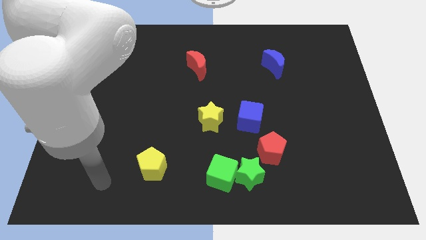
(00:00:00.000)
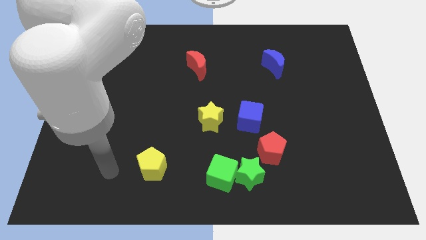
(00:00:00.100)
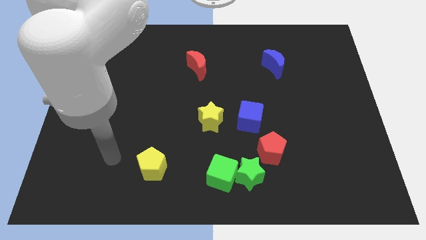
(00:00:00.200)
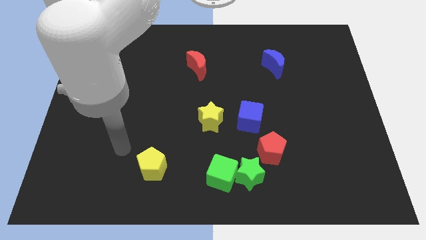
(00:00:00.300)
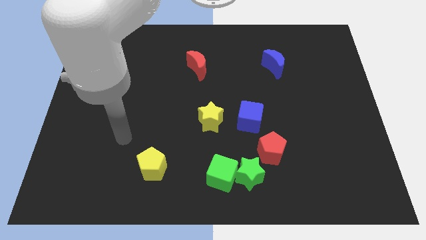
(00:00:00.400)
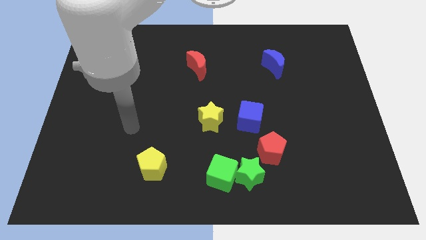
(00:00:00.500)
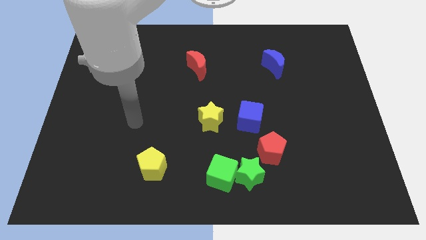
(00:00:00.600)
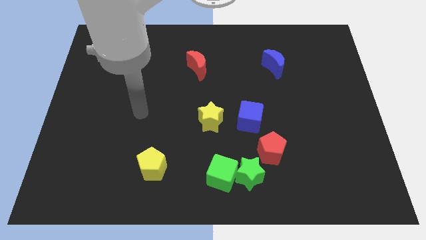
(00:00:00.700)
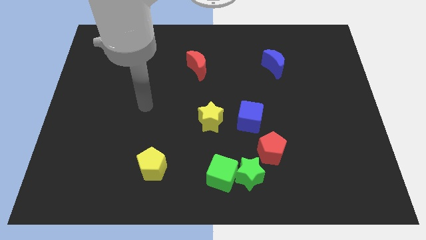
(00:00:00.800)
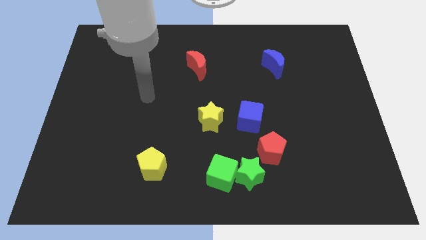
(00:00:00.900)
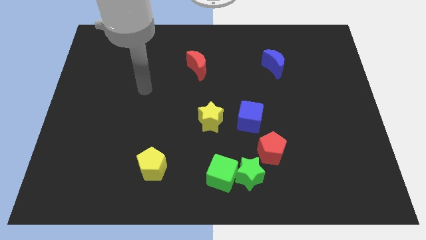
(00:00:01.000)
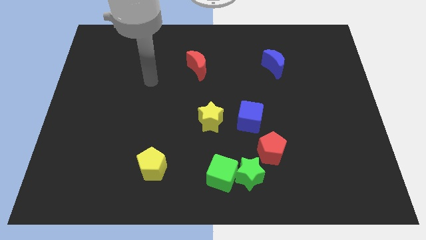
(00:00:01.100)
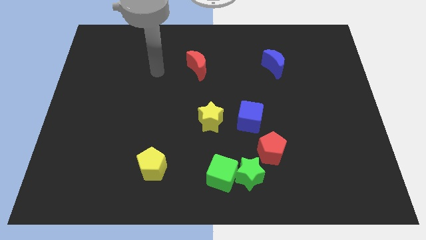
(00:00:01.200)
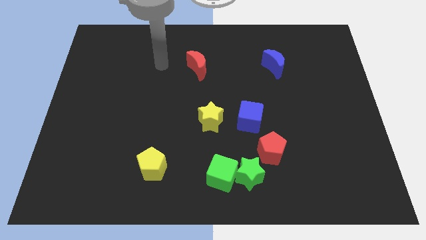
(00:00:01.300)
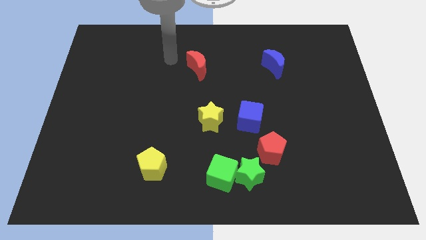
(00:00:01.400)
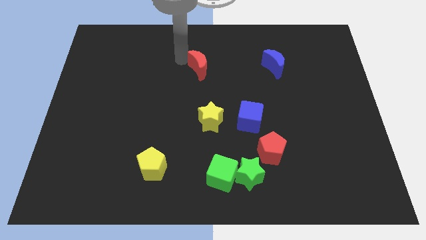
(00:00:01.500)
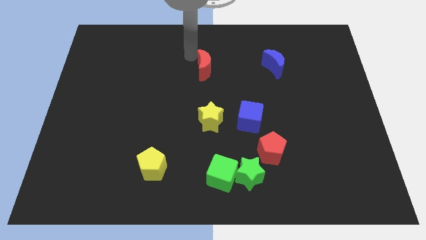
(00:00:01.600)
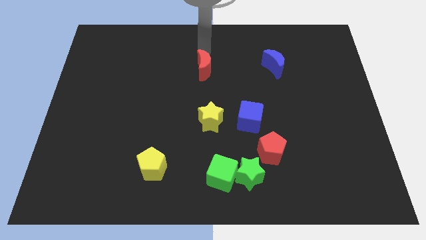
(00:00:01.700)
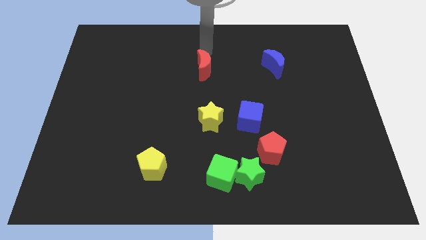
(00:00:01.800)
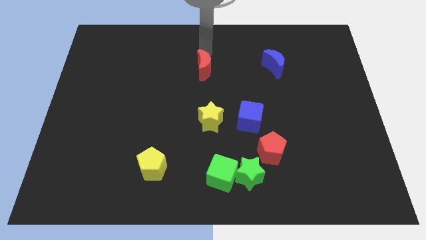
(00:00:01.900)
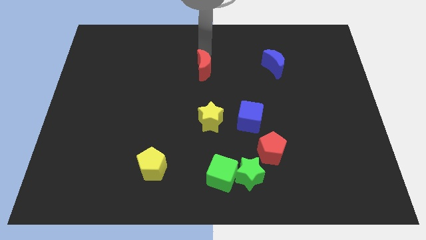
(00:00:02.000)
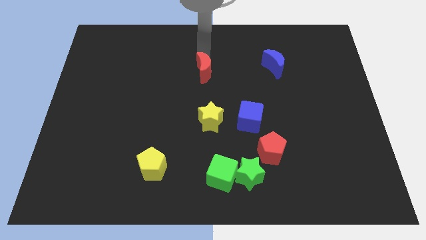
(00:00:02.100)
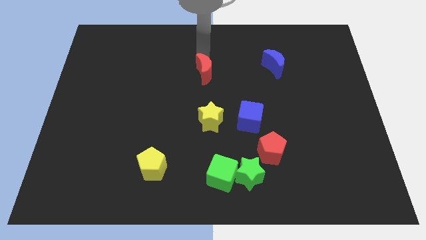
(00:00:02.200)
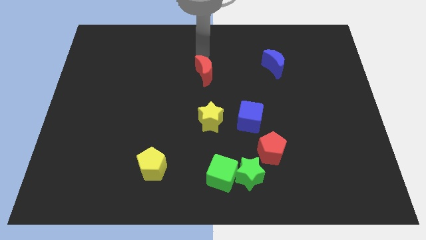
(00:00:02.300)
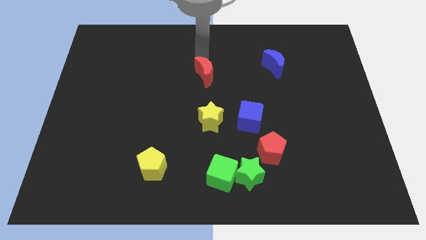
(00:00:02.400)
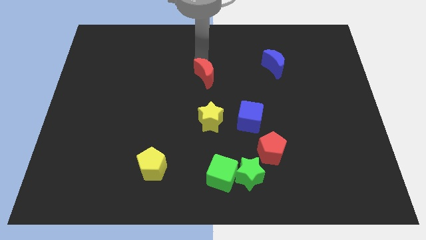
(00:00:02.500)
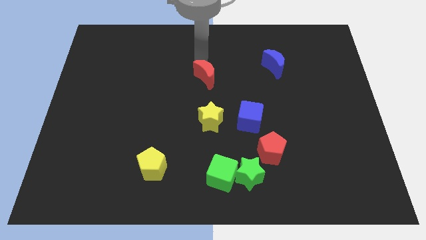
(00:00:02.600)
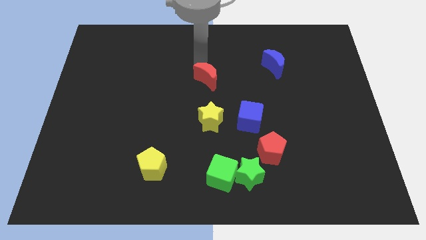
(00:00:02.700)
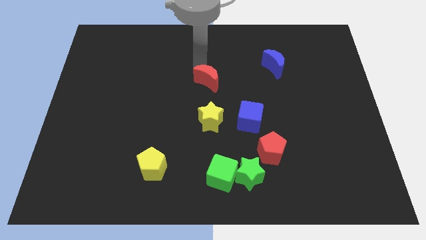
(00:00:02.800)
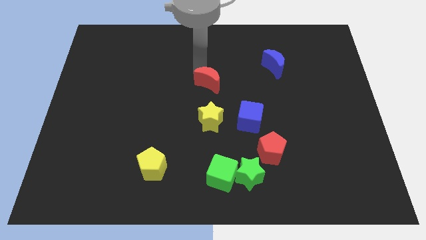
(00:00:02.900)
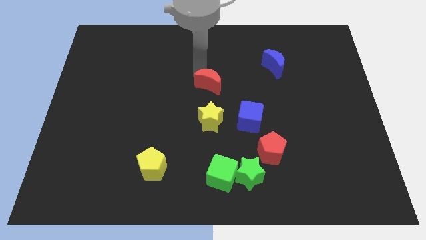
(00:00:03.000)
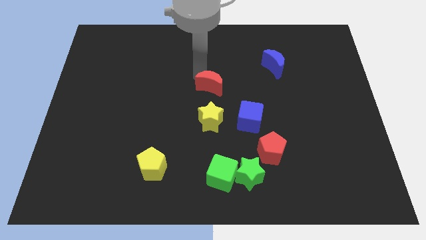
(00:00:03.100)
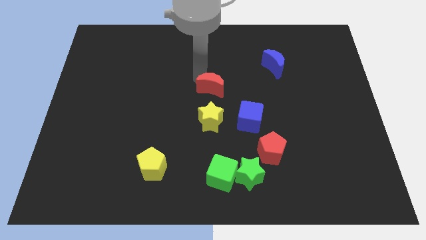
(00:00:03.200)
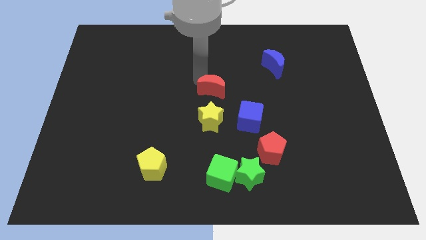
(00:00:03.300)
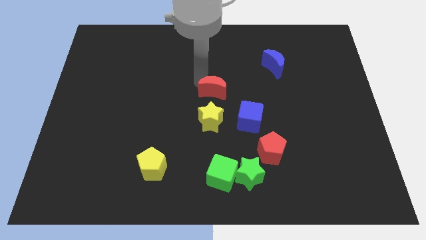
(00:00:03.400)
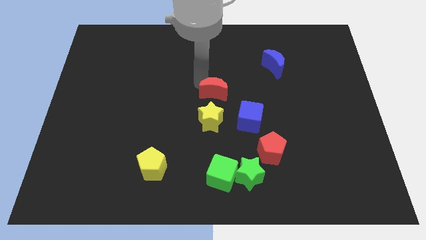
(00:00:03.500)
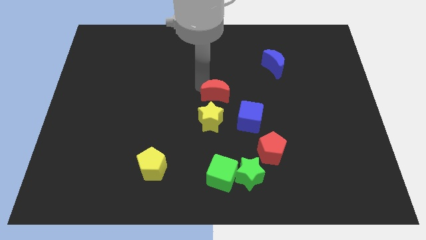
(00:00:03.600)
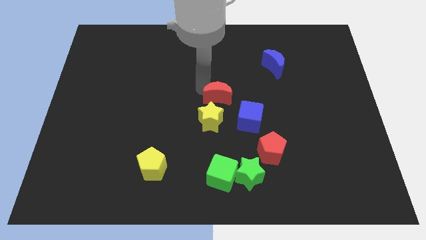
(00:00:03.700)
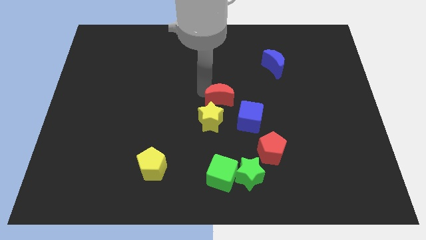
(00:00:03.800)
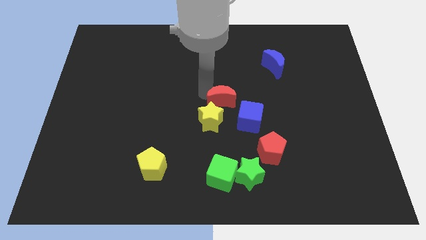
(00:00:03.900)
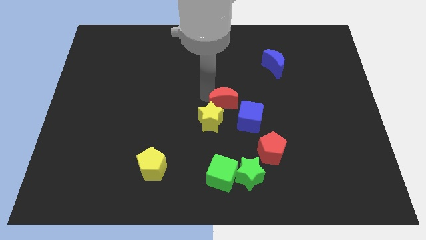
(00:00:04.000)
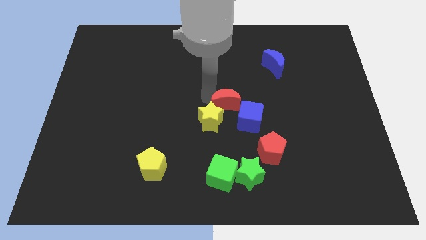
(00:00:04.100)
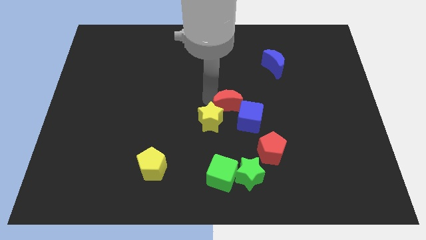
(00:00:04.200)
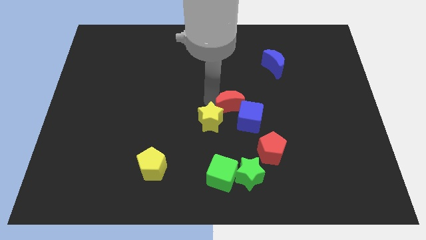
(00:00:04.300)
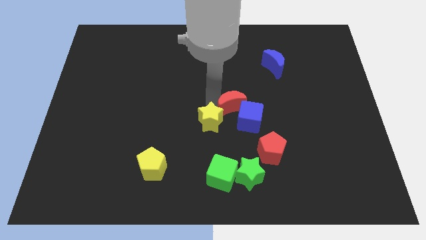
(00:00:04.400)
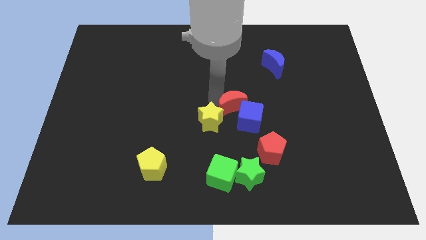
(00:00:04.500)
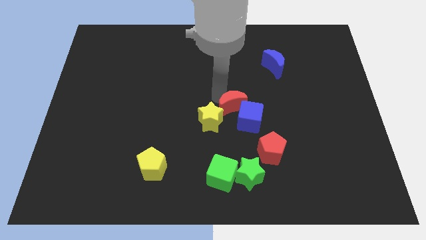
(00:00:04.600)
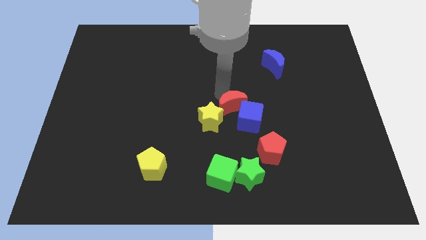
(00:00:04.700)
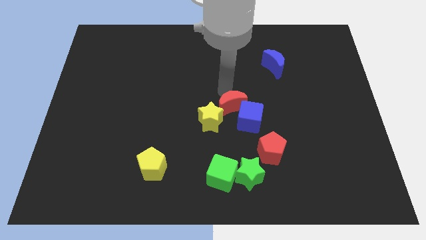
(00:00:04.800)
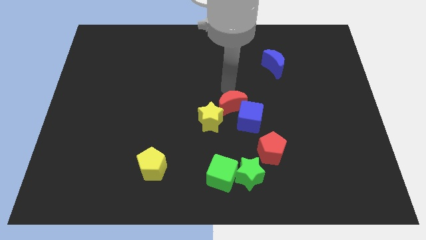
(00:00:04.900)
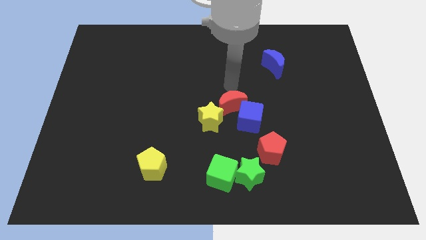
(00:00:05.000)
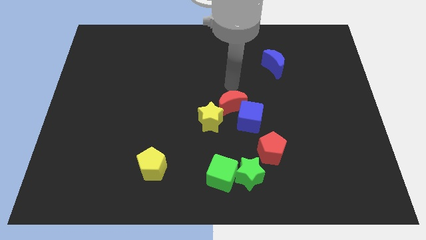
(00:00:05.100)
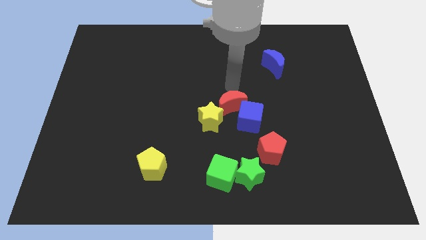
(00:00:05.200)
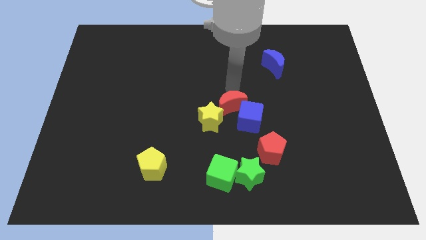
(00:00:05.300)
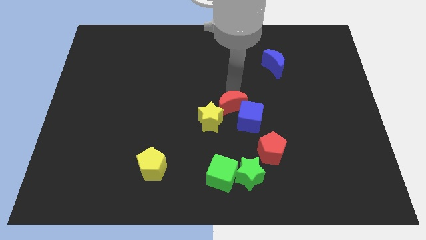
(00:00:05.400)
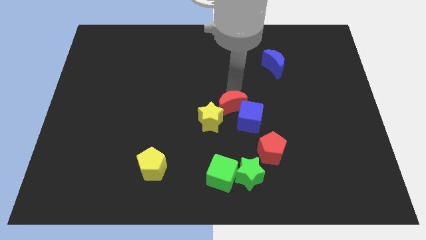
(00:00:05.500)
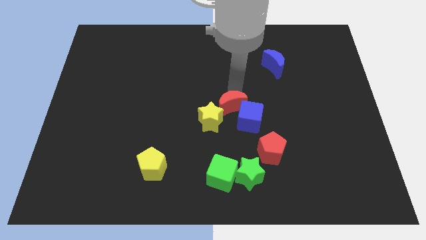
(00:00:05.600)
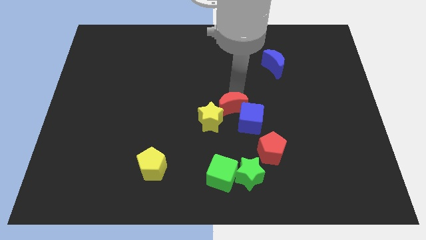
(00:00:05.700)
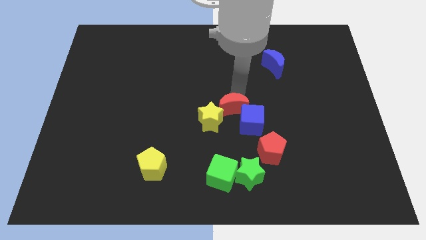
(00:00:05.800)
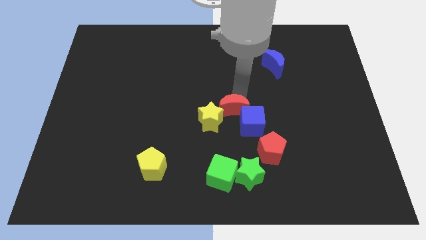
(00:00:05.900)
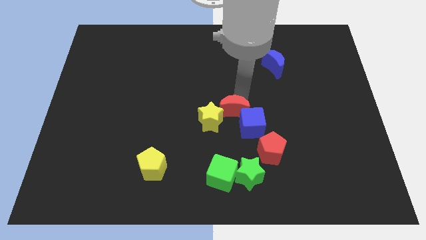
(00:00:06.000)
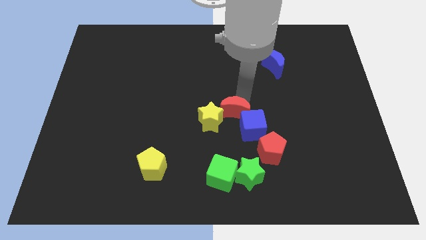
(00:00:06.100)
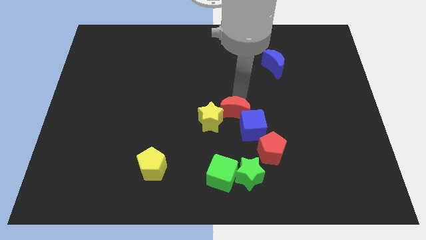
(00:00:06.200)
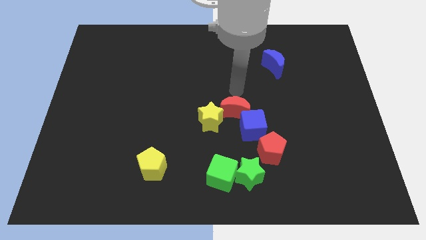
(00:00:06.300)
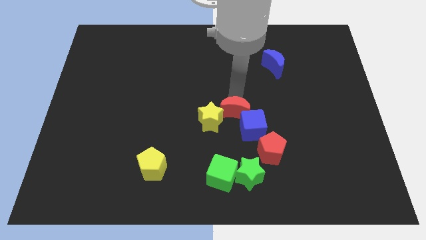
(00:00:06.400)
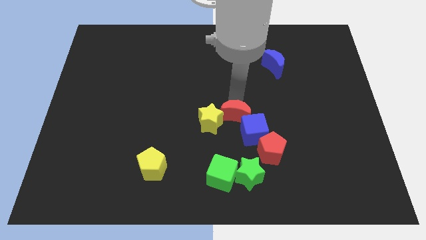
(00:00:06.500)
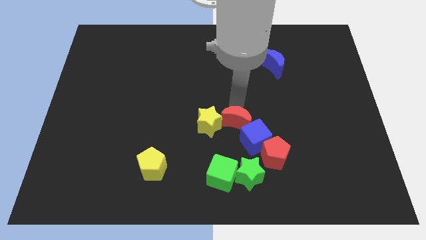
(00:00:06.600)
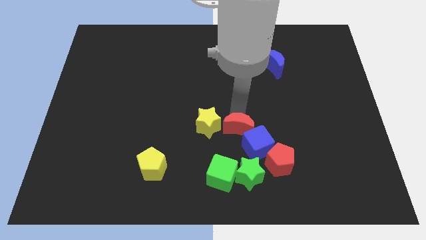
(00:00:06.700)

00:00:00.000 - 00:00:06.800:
put the red moon diagonally down and to the right of the yellow star
